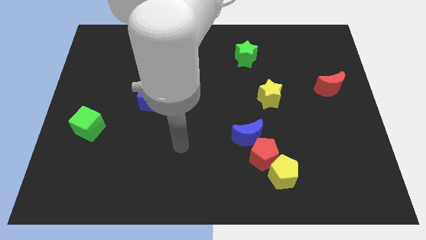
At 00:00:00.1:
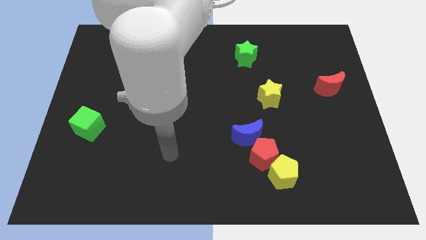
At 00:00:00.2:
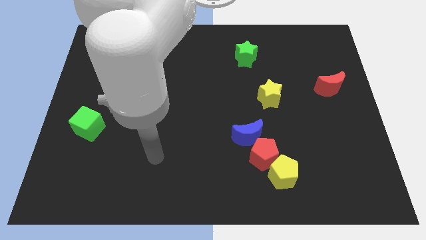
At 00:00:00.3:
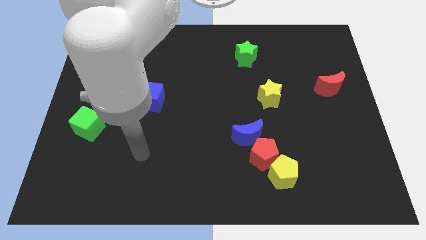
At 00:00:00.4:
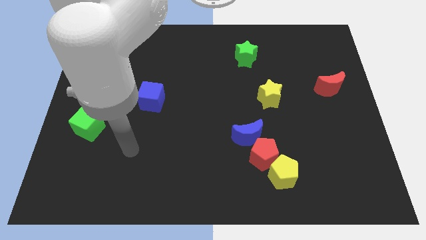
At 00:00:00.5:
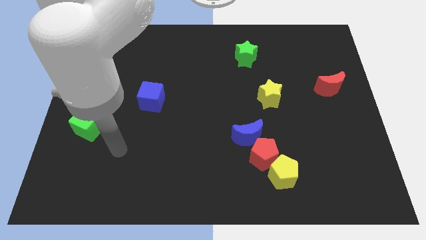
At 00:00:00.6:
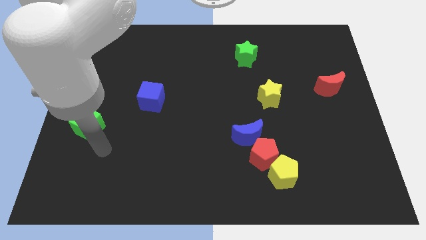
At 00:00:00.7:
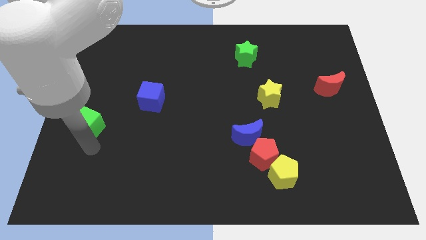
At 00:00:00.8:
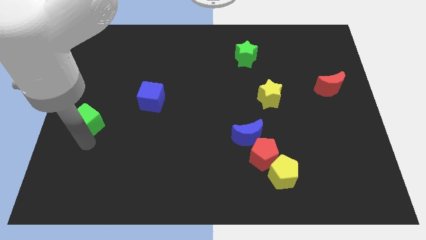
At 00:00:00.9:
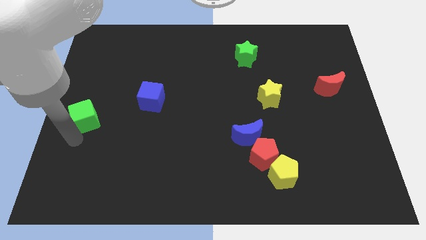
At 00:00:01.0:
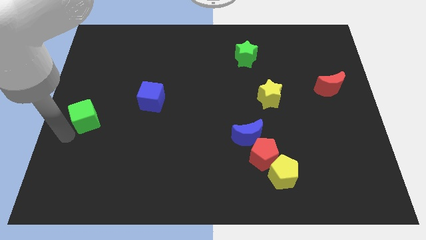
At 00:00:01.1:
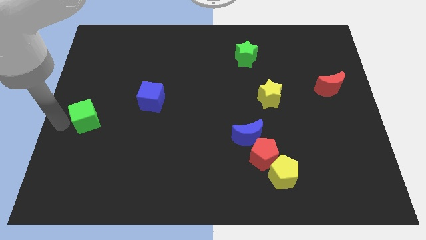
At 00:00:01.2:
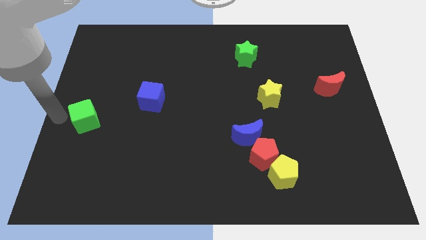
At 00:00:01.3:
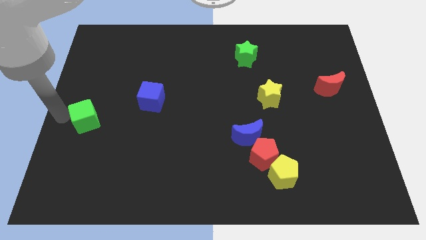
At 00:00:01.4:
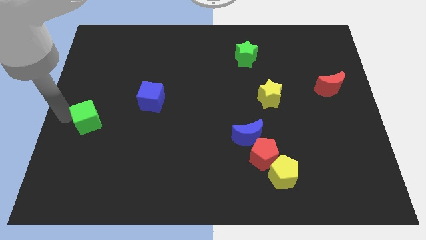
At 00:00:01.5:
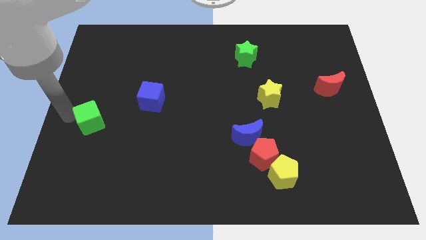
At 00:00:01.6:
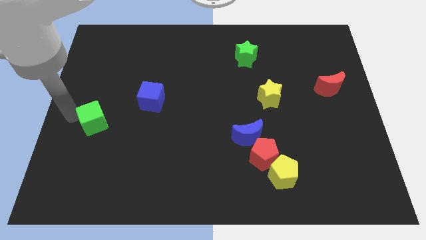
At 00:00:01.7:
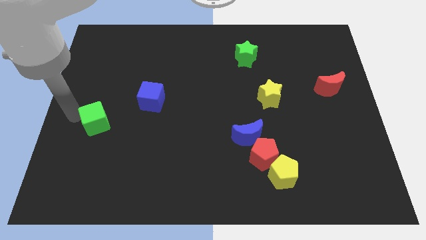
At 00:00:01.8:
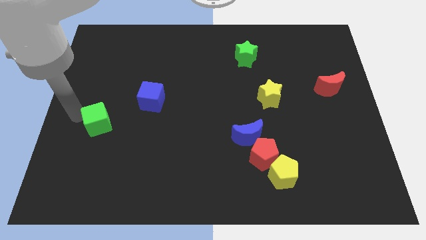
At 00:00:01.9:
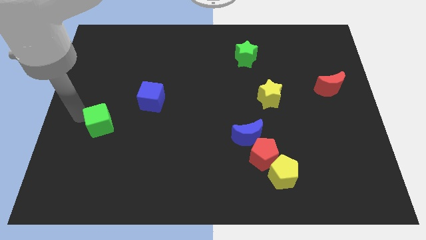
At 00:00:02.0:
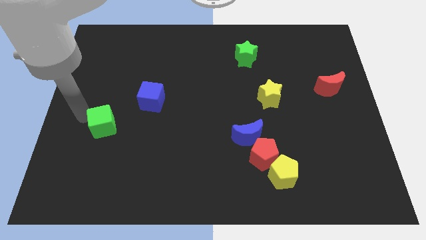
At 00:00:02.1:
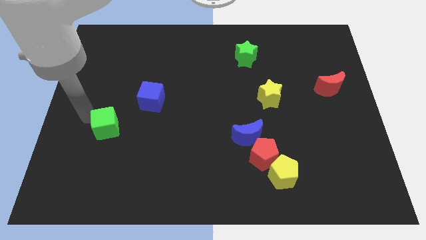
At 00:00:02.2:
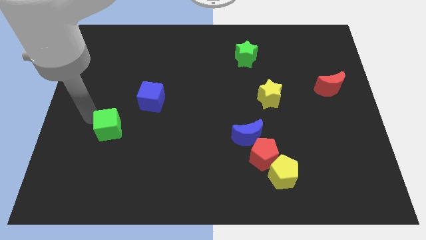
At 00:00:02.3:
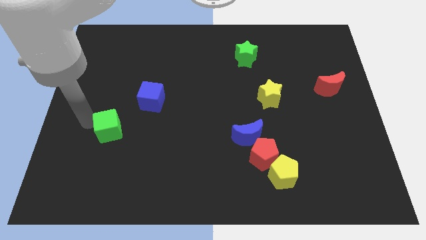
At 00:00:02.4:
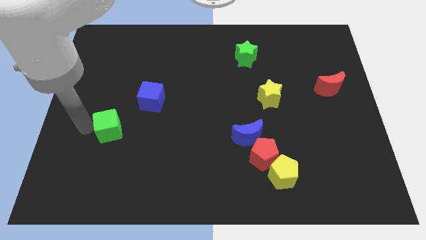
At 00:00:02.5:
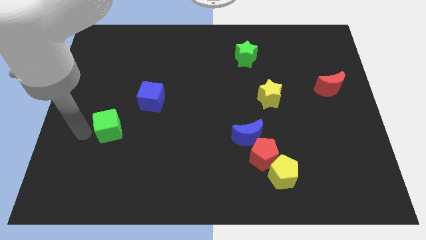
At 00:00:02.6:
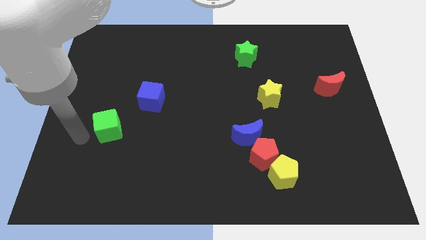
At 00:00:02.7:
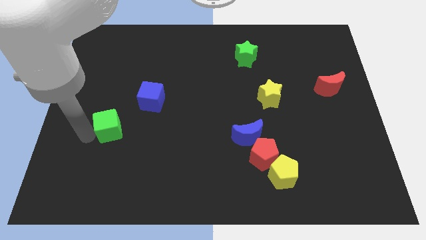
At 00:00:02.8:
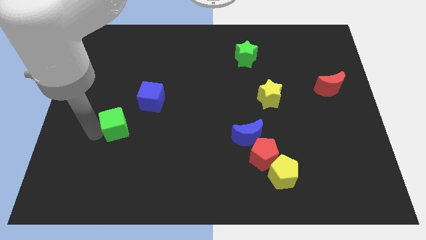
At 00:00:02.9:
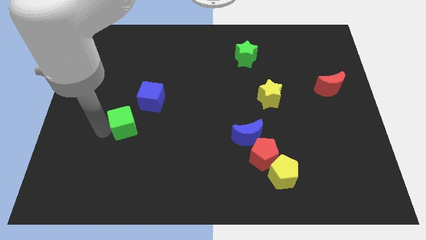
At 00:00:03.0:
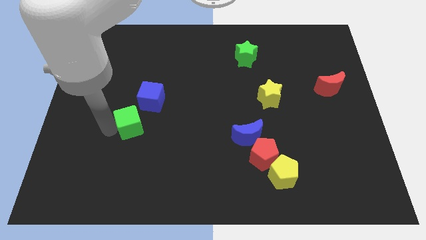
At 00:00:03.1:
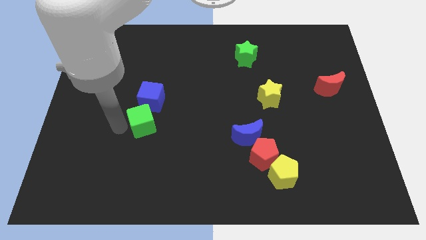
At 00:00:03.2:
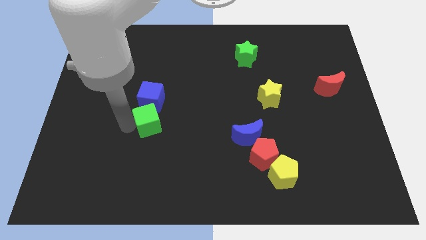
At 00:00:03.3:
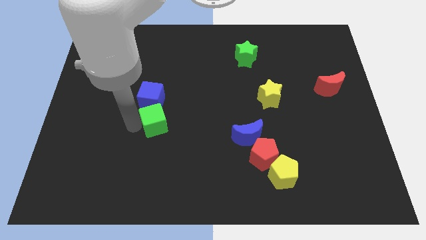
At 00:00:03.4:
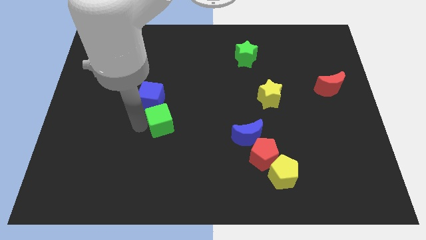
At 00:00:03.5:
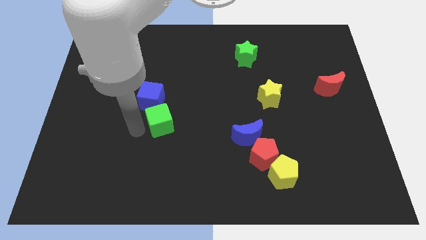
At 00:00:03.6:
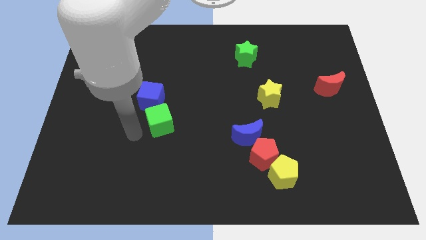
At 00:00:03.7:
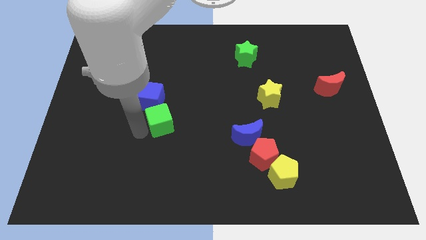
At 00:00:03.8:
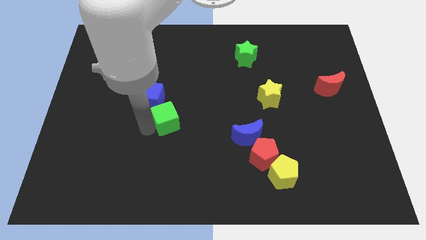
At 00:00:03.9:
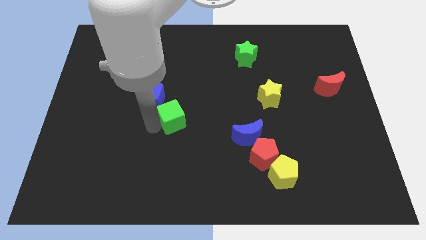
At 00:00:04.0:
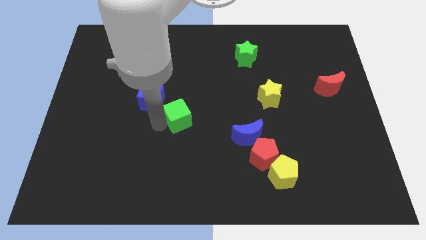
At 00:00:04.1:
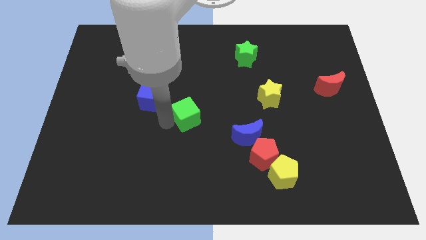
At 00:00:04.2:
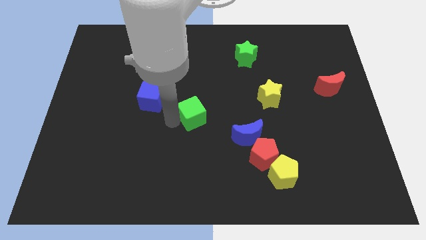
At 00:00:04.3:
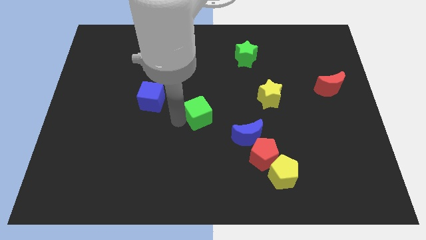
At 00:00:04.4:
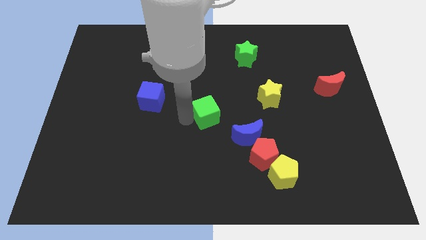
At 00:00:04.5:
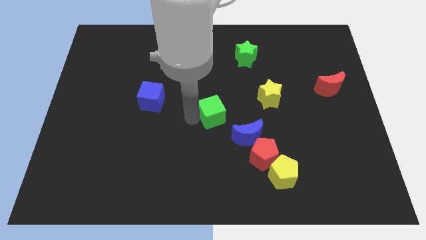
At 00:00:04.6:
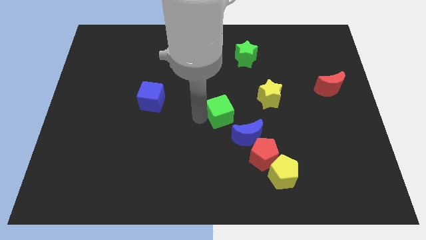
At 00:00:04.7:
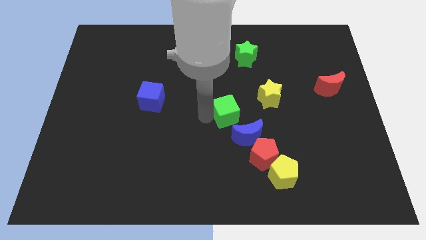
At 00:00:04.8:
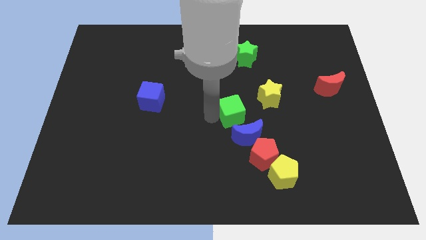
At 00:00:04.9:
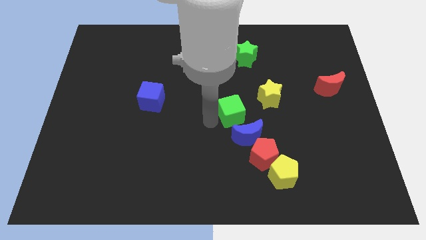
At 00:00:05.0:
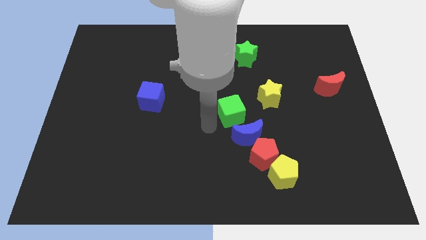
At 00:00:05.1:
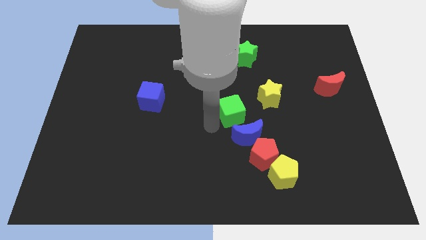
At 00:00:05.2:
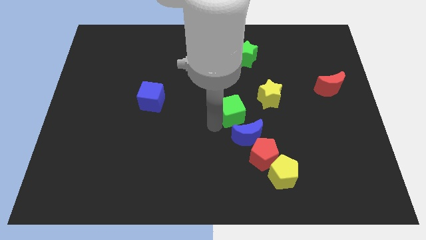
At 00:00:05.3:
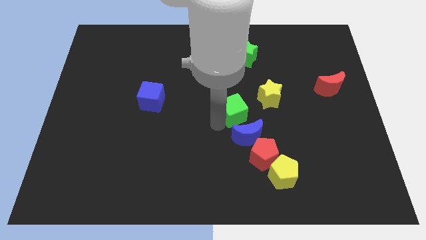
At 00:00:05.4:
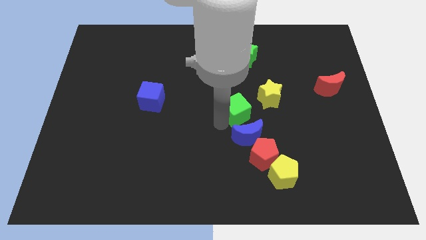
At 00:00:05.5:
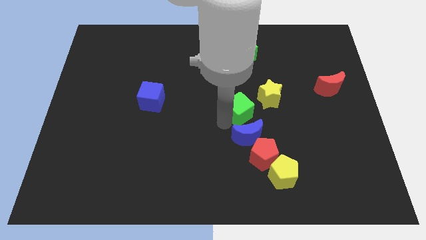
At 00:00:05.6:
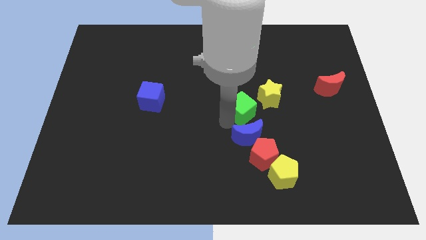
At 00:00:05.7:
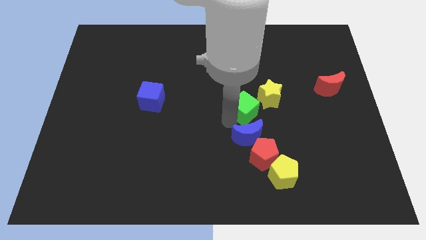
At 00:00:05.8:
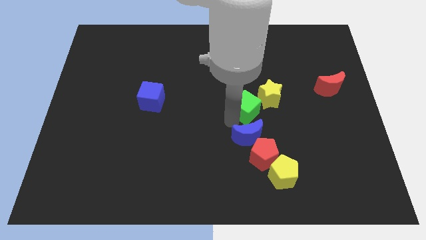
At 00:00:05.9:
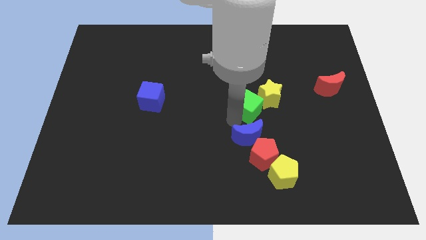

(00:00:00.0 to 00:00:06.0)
push the green cube towards the yellow star

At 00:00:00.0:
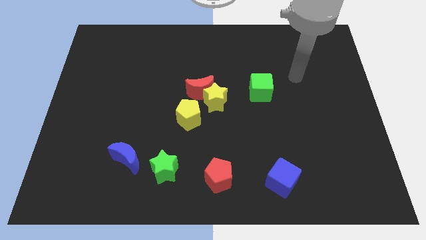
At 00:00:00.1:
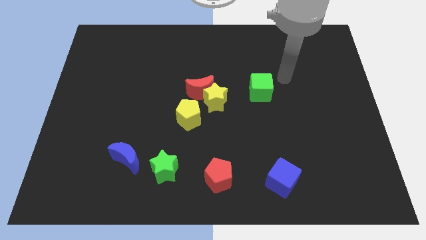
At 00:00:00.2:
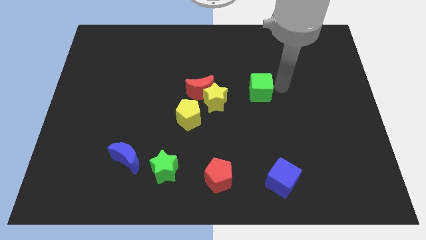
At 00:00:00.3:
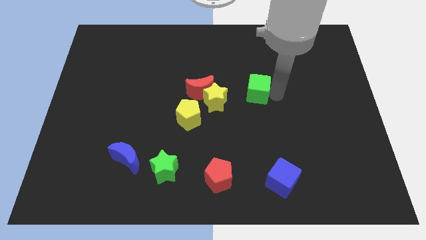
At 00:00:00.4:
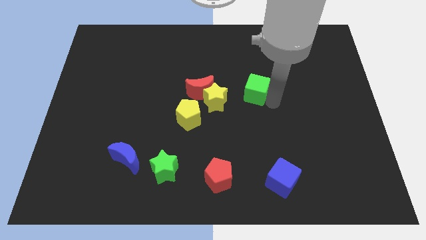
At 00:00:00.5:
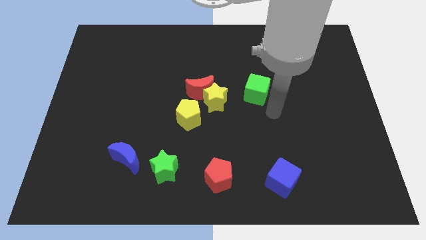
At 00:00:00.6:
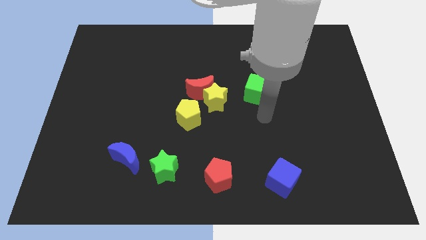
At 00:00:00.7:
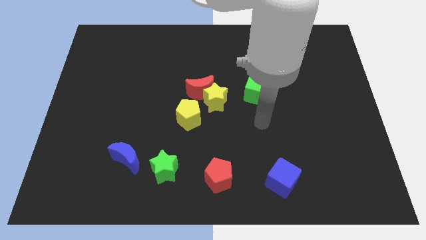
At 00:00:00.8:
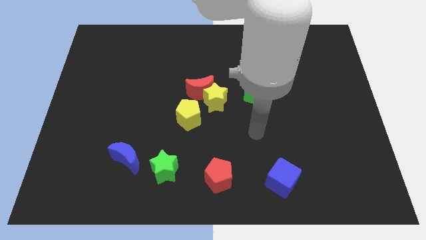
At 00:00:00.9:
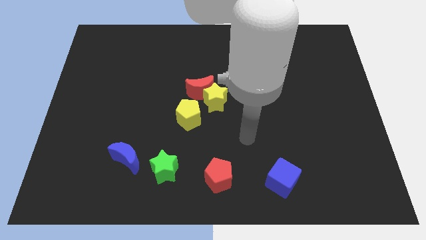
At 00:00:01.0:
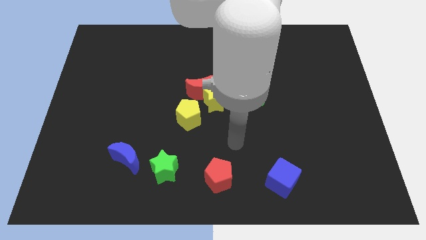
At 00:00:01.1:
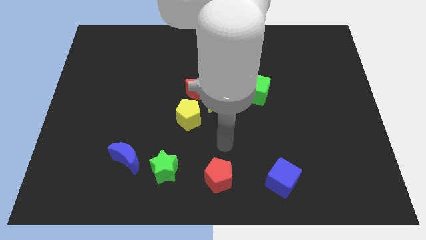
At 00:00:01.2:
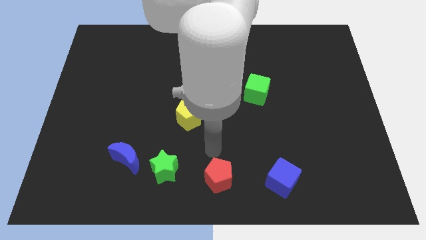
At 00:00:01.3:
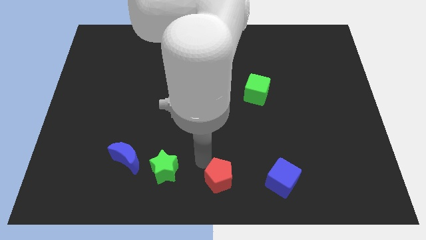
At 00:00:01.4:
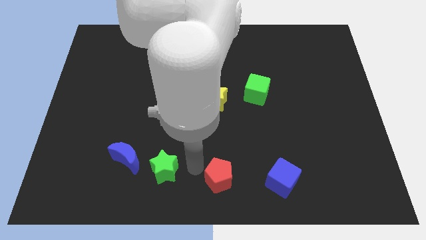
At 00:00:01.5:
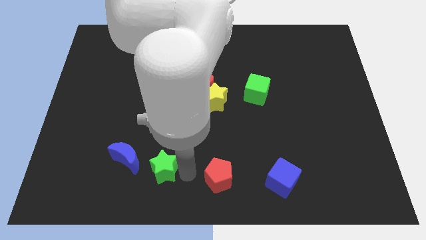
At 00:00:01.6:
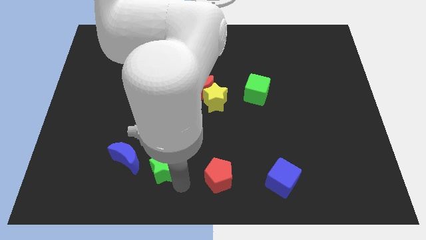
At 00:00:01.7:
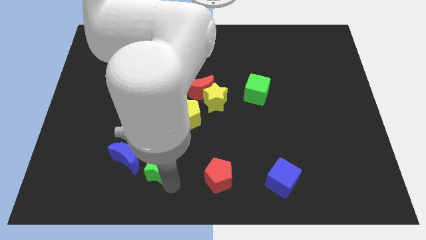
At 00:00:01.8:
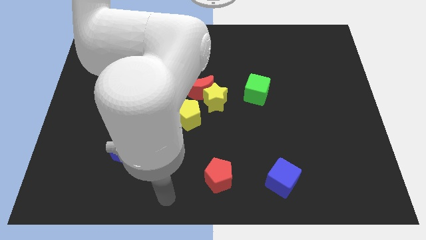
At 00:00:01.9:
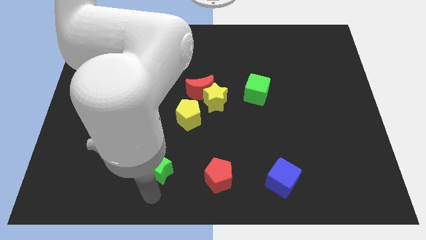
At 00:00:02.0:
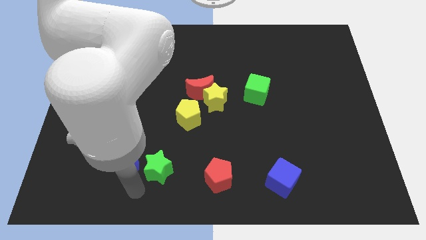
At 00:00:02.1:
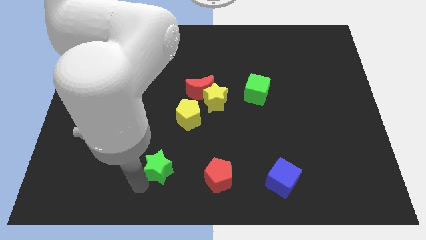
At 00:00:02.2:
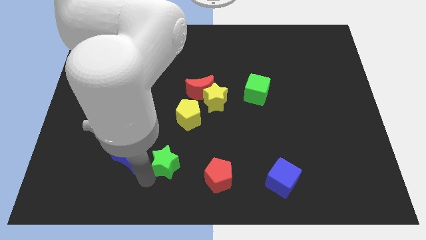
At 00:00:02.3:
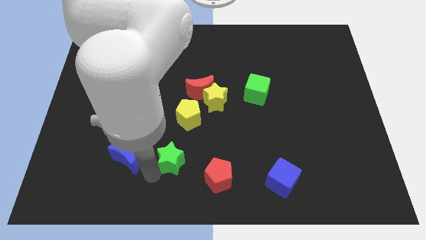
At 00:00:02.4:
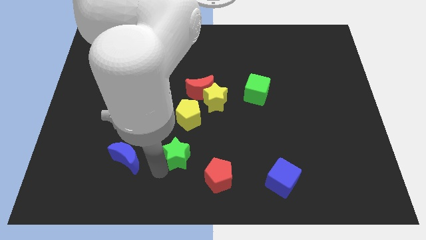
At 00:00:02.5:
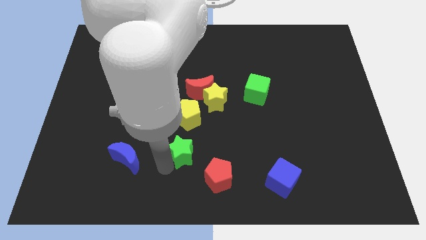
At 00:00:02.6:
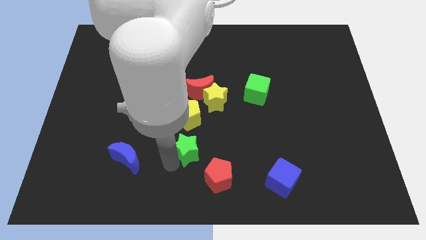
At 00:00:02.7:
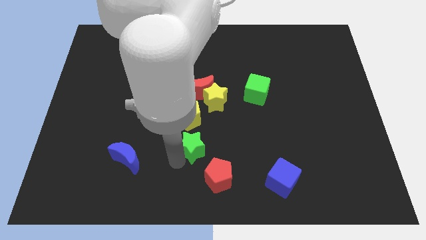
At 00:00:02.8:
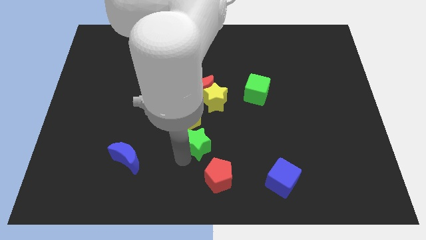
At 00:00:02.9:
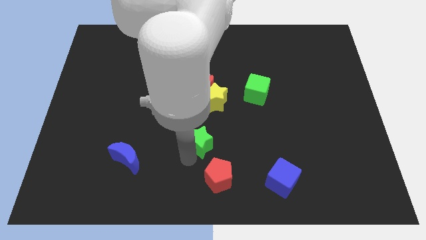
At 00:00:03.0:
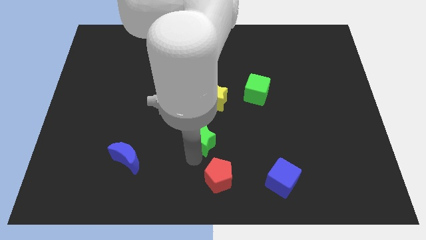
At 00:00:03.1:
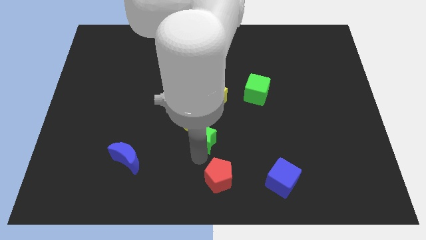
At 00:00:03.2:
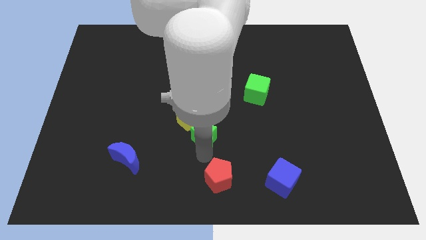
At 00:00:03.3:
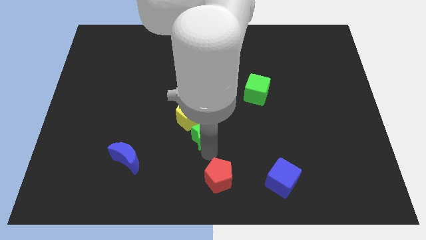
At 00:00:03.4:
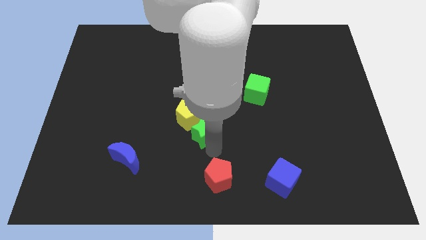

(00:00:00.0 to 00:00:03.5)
put the green star towards the yellow pentagon
